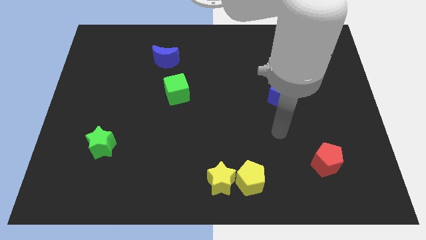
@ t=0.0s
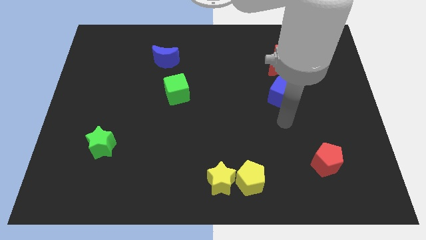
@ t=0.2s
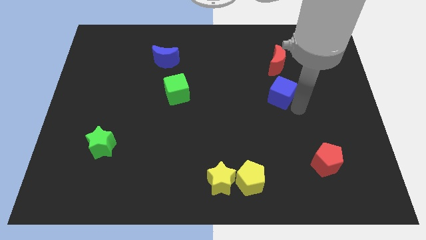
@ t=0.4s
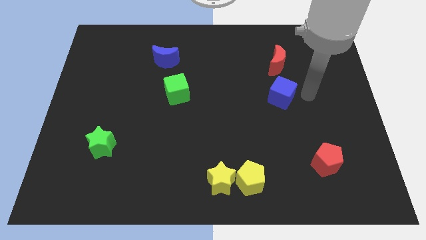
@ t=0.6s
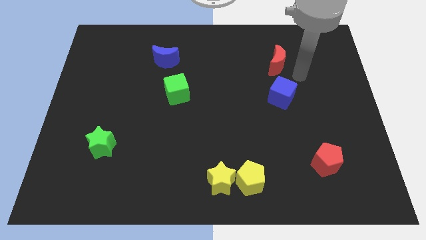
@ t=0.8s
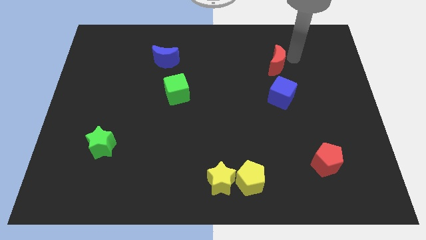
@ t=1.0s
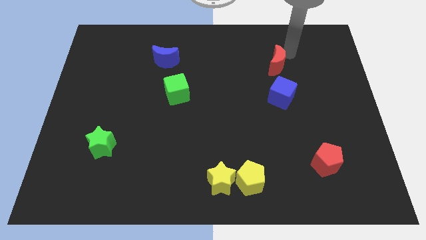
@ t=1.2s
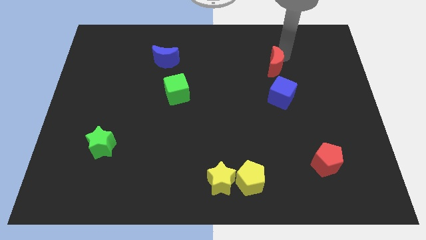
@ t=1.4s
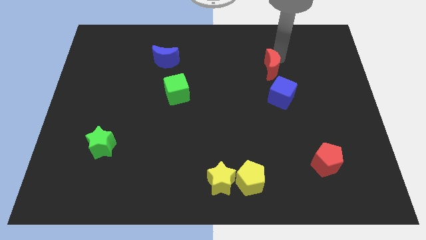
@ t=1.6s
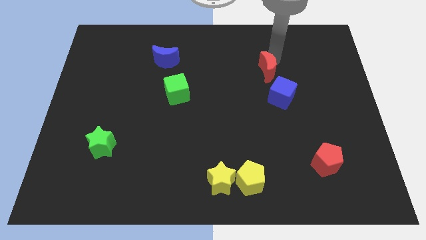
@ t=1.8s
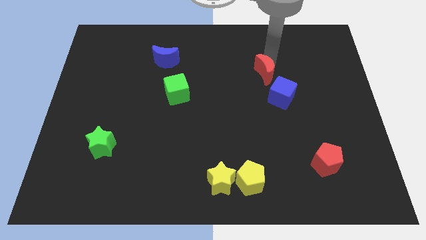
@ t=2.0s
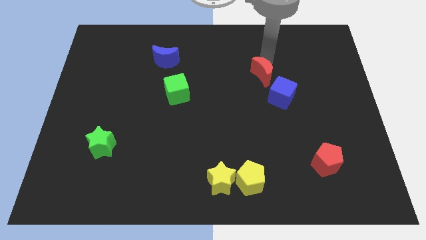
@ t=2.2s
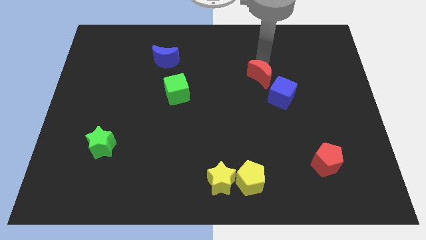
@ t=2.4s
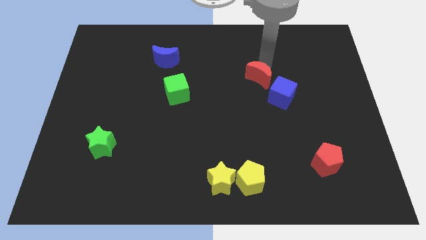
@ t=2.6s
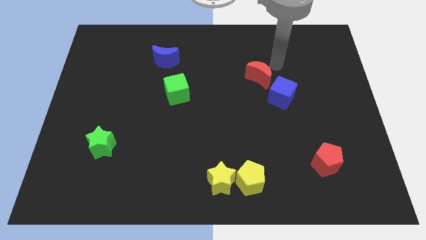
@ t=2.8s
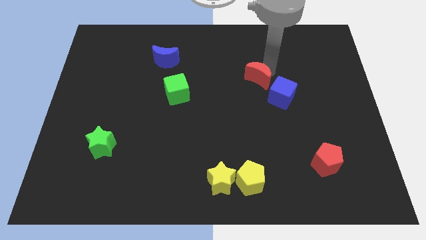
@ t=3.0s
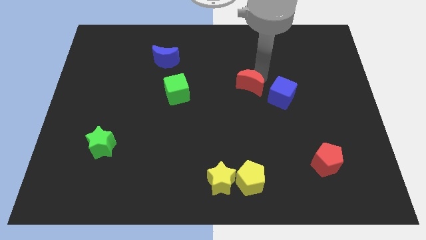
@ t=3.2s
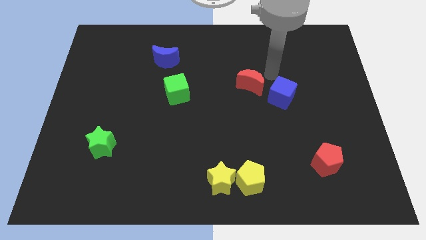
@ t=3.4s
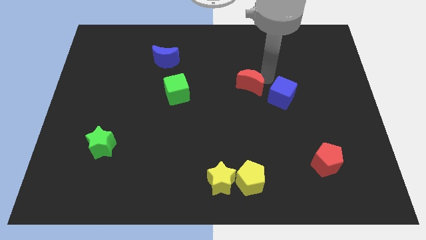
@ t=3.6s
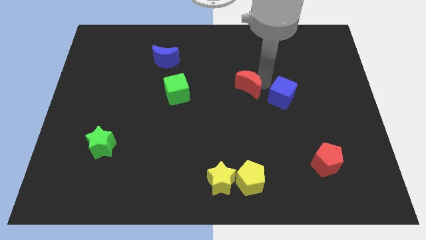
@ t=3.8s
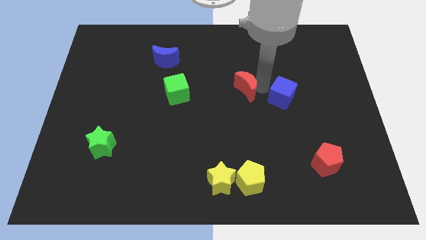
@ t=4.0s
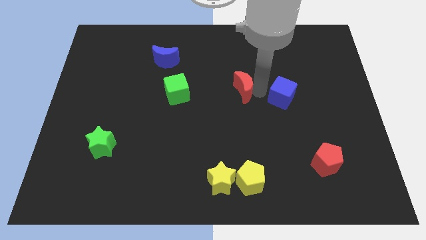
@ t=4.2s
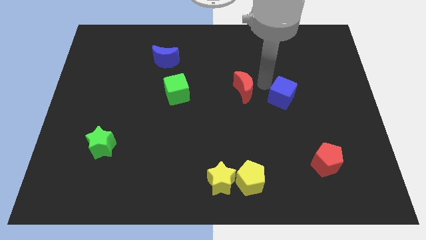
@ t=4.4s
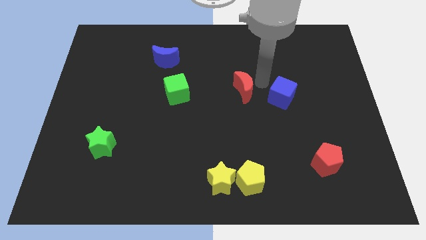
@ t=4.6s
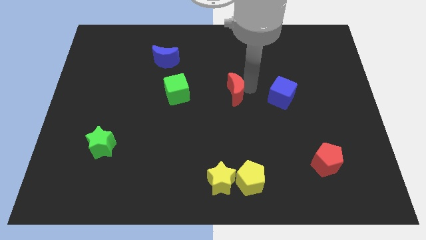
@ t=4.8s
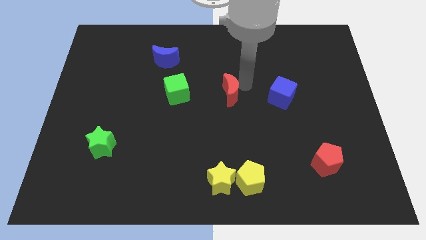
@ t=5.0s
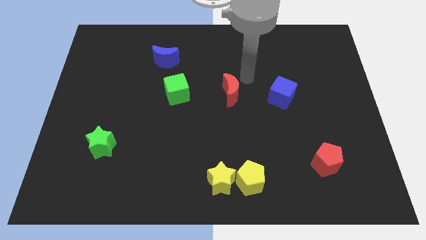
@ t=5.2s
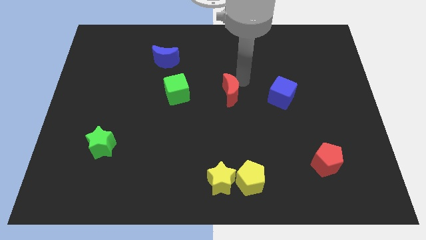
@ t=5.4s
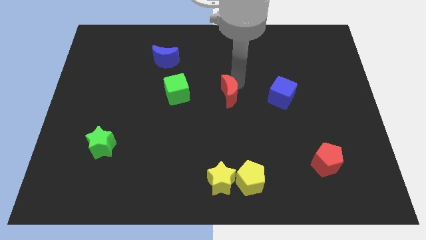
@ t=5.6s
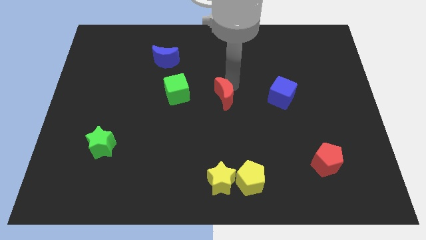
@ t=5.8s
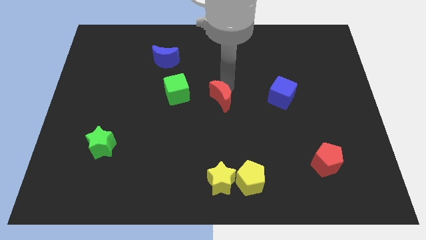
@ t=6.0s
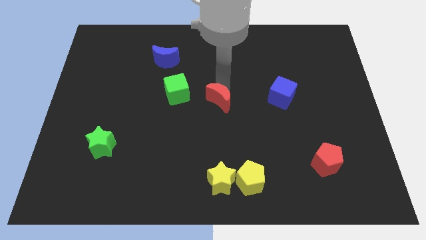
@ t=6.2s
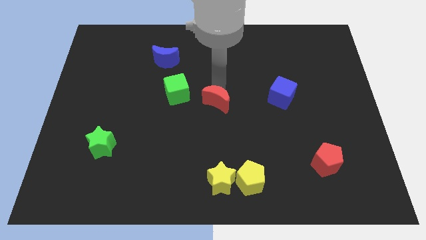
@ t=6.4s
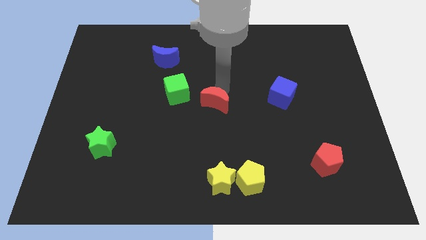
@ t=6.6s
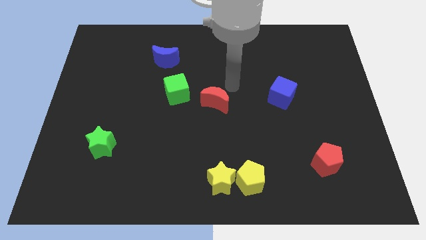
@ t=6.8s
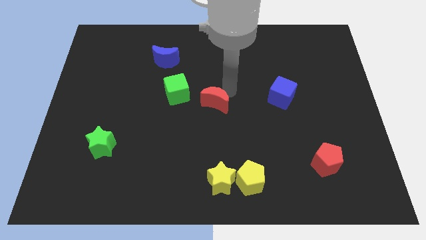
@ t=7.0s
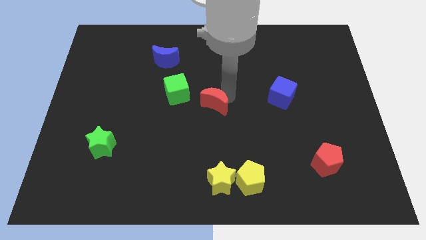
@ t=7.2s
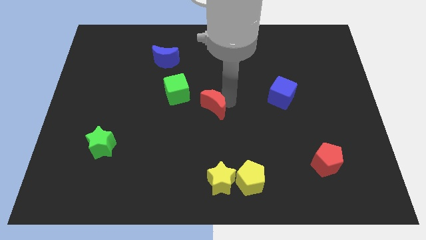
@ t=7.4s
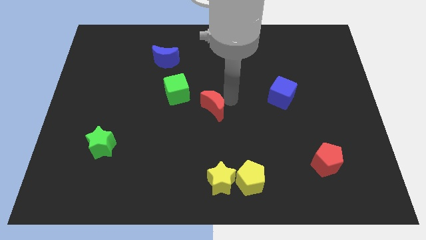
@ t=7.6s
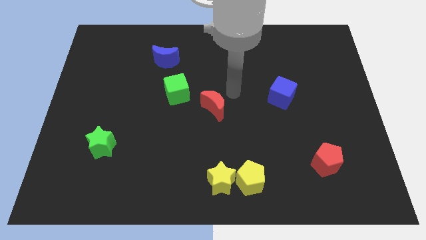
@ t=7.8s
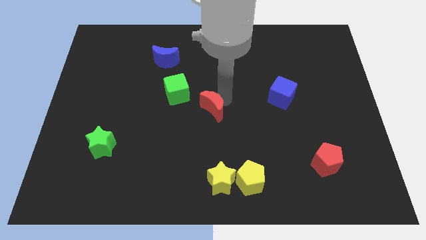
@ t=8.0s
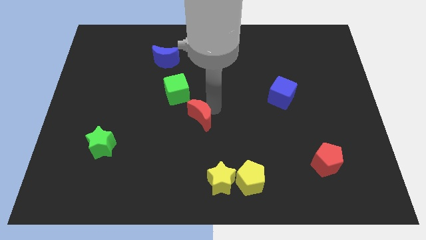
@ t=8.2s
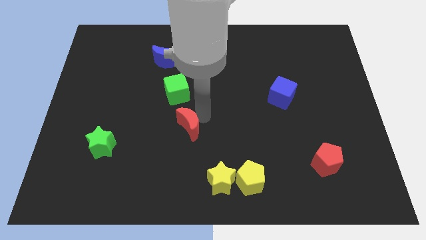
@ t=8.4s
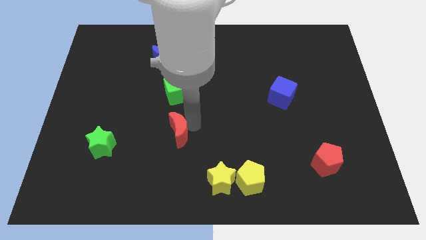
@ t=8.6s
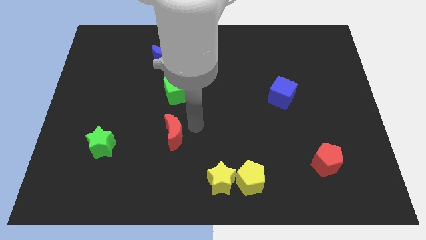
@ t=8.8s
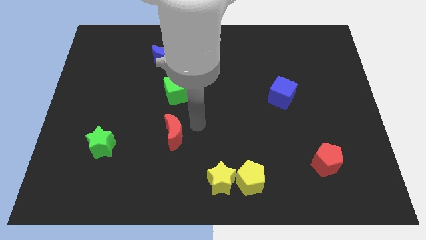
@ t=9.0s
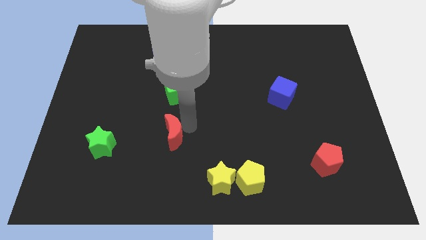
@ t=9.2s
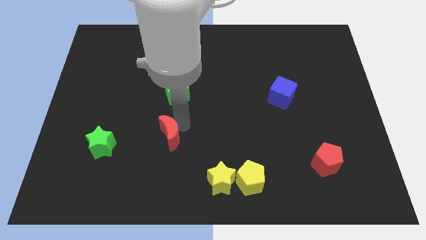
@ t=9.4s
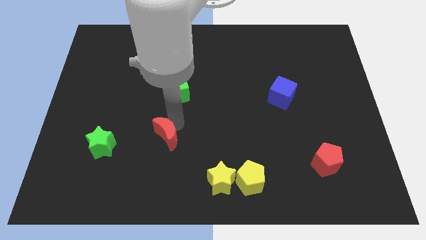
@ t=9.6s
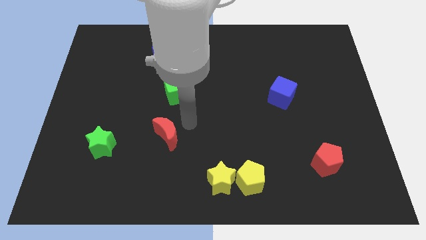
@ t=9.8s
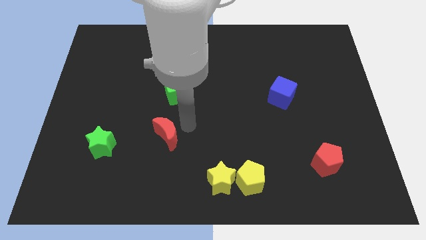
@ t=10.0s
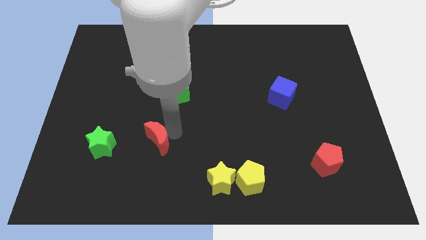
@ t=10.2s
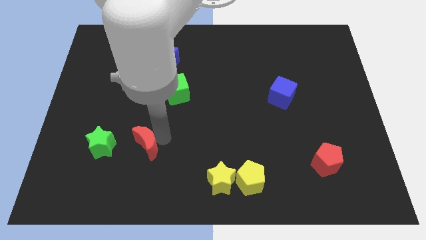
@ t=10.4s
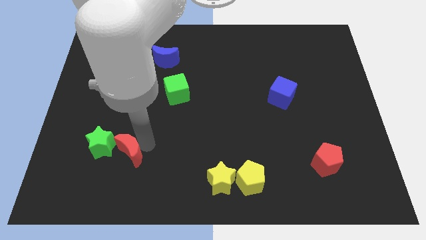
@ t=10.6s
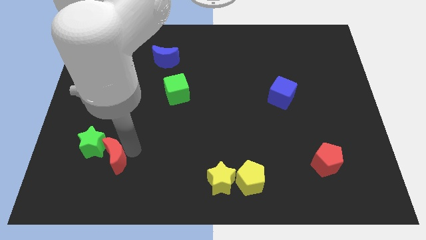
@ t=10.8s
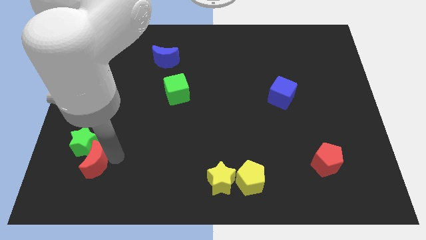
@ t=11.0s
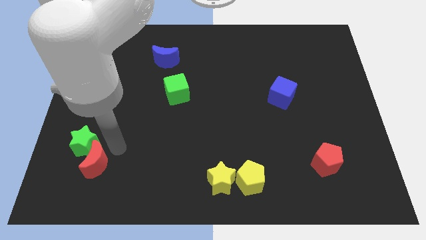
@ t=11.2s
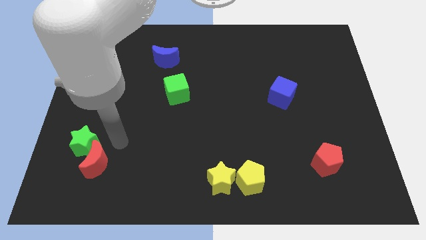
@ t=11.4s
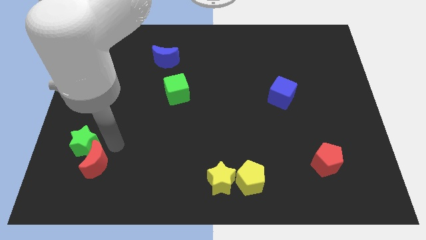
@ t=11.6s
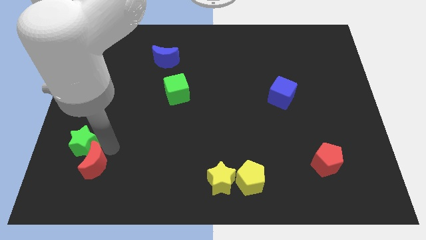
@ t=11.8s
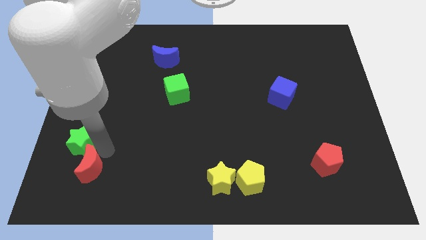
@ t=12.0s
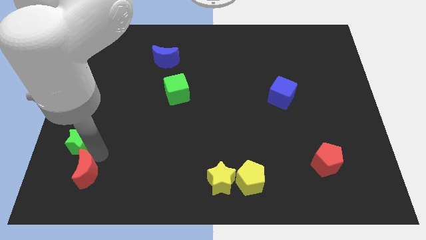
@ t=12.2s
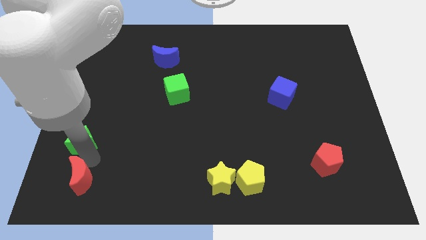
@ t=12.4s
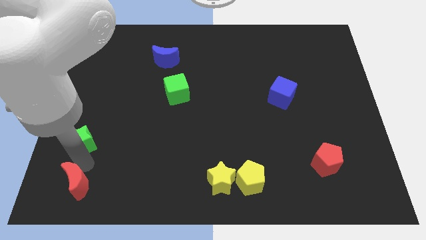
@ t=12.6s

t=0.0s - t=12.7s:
move the red moon to the bottom left corner
